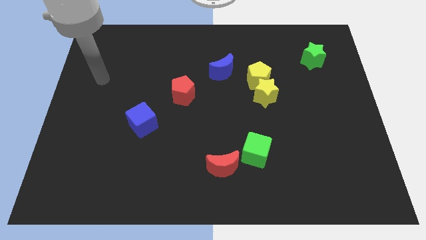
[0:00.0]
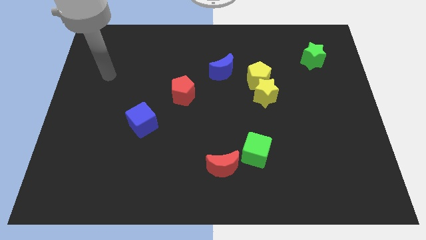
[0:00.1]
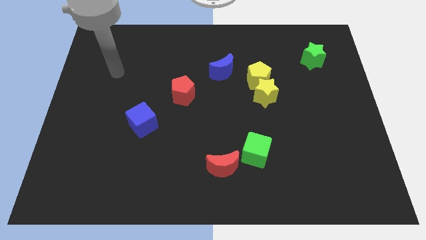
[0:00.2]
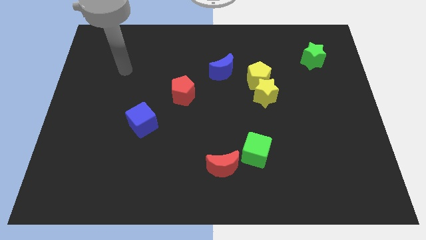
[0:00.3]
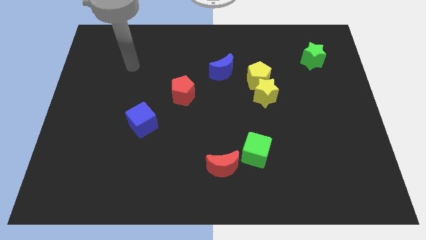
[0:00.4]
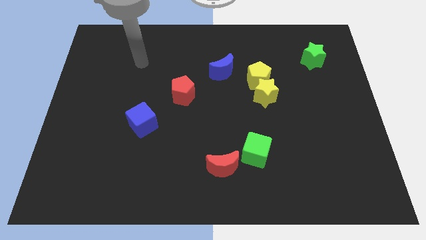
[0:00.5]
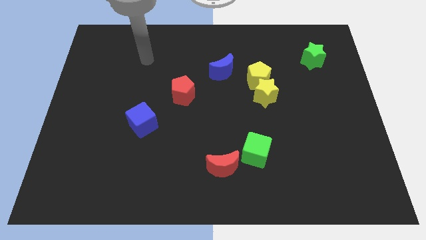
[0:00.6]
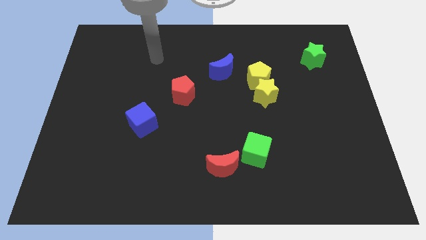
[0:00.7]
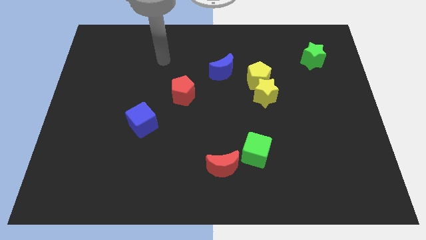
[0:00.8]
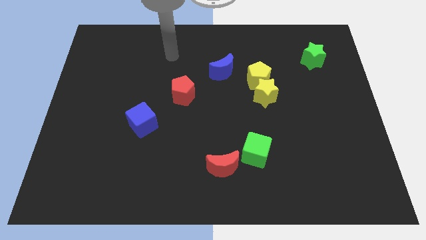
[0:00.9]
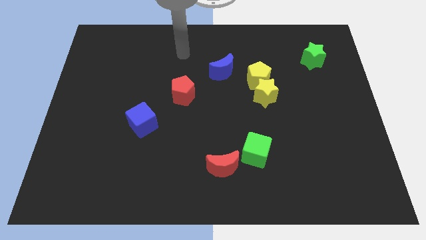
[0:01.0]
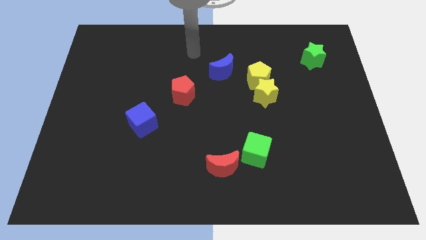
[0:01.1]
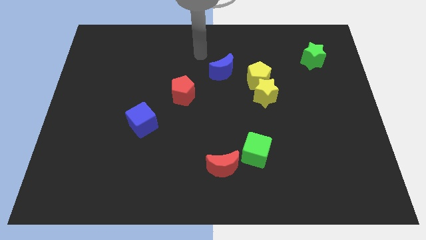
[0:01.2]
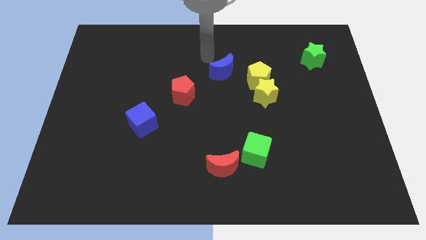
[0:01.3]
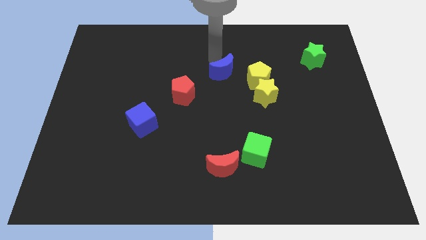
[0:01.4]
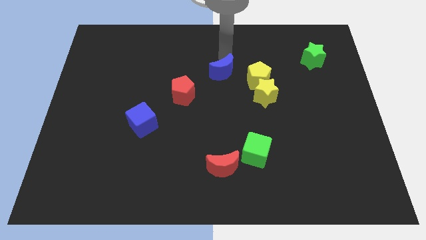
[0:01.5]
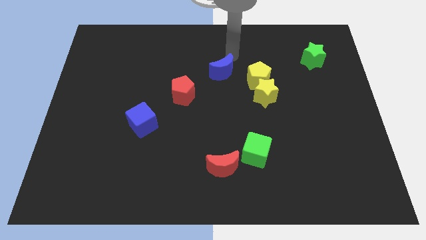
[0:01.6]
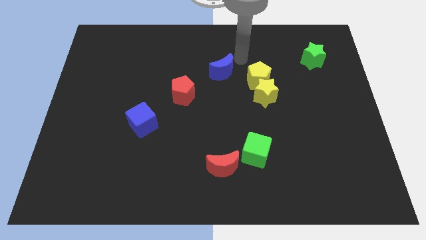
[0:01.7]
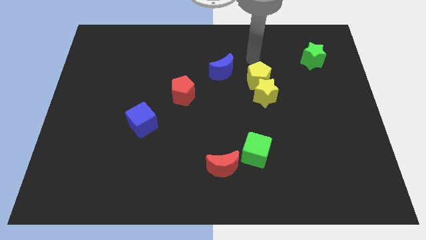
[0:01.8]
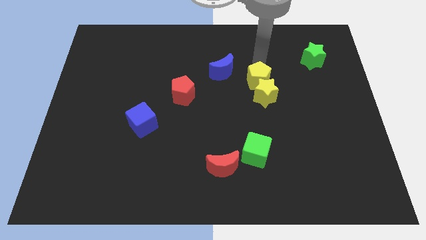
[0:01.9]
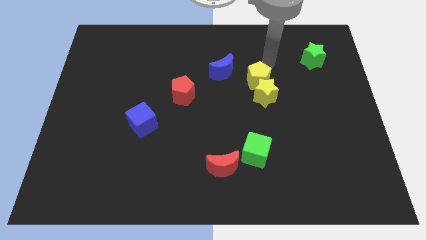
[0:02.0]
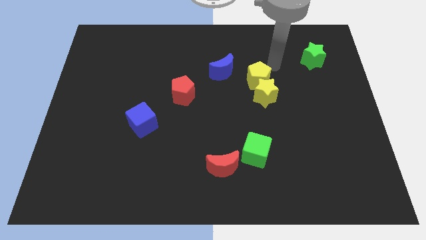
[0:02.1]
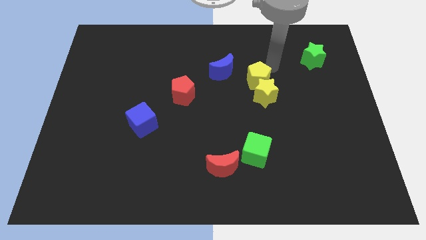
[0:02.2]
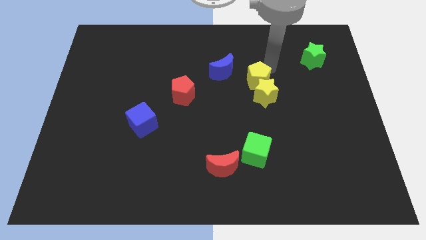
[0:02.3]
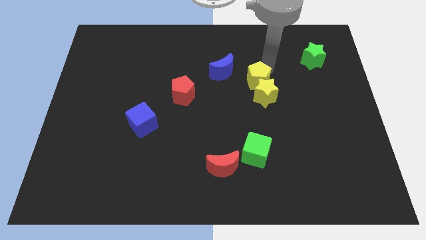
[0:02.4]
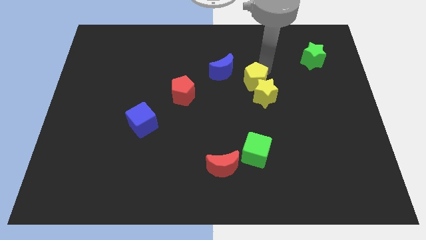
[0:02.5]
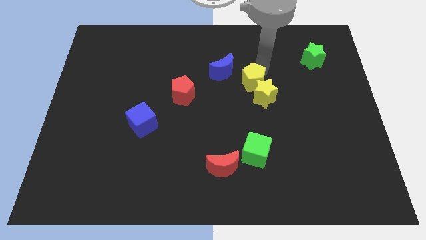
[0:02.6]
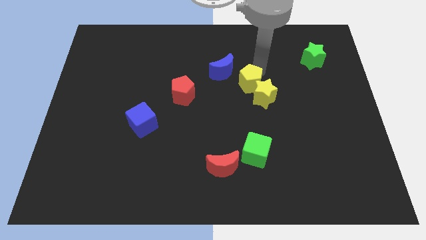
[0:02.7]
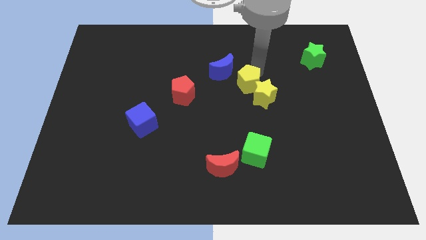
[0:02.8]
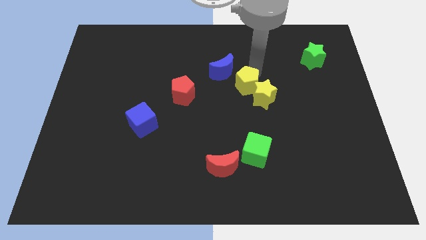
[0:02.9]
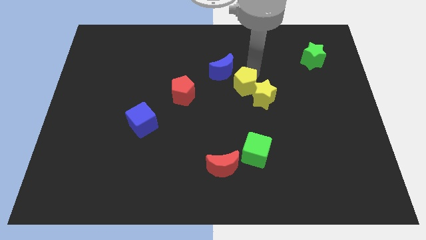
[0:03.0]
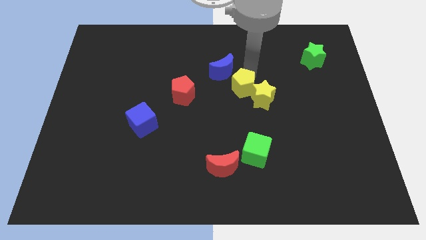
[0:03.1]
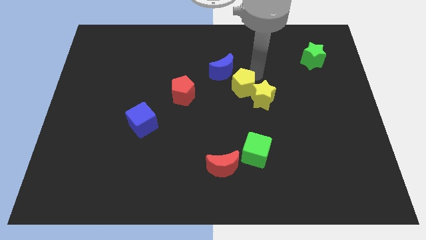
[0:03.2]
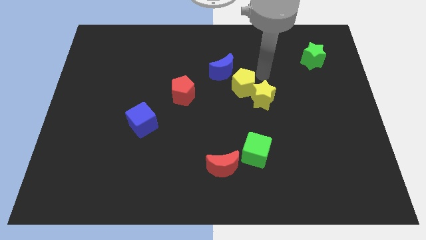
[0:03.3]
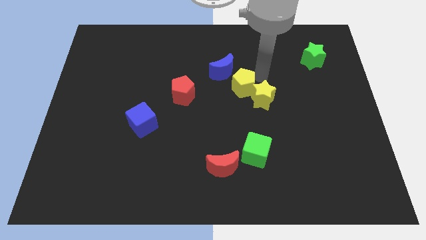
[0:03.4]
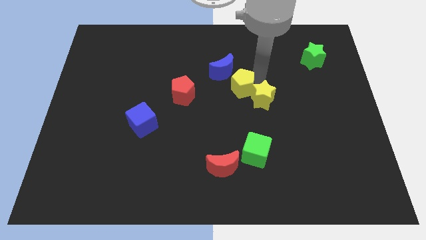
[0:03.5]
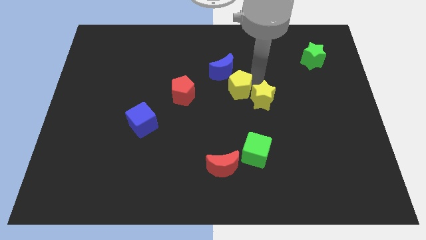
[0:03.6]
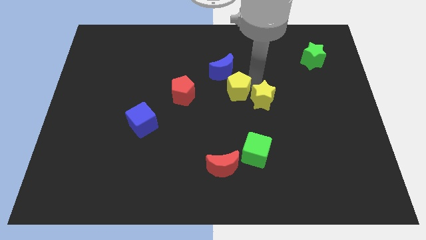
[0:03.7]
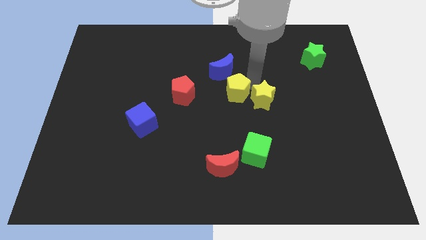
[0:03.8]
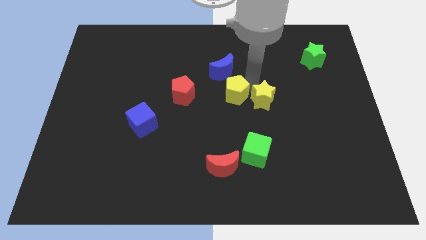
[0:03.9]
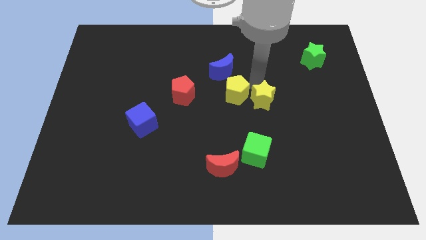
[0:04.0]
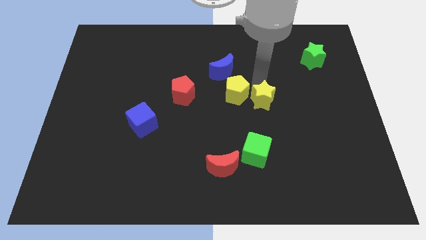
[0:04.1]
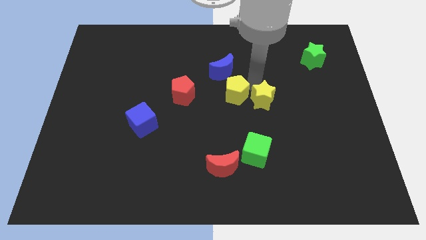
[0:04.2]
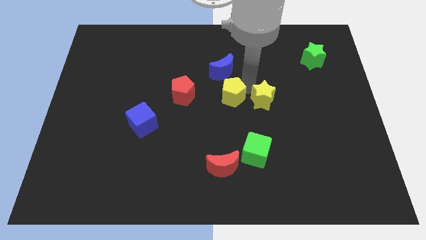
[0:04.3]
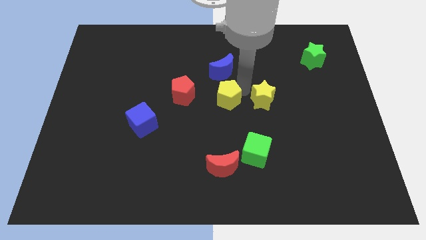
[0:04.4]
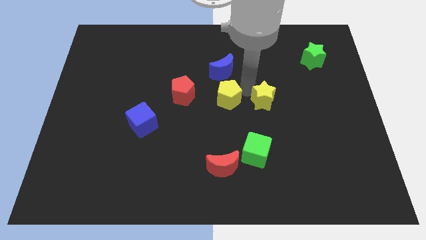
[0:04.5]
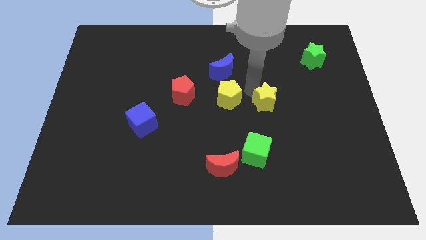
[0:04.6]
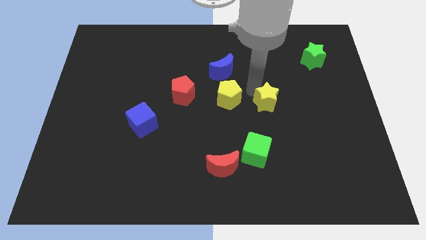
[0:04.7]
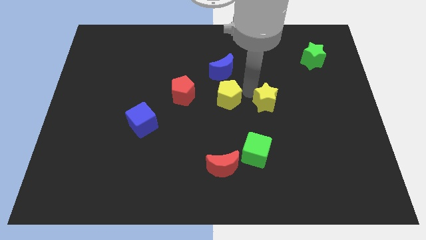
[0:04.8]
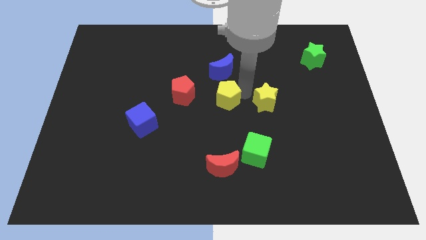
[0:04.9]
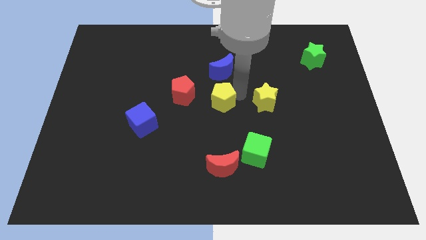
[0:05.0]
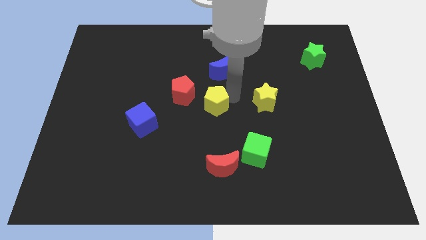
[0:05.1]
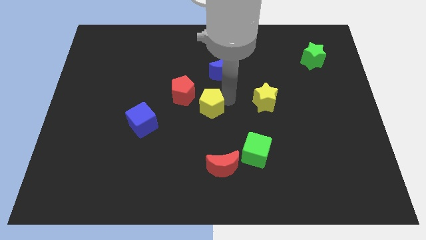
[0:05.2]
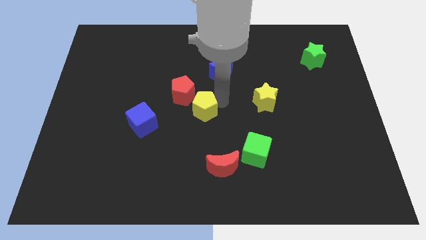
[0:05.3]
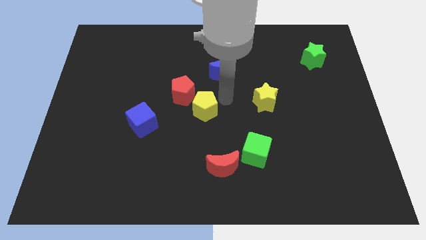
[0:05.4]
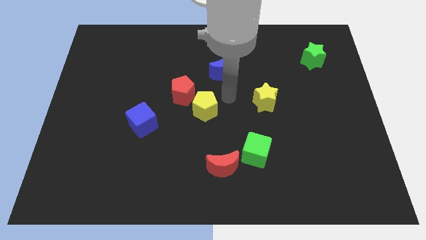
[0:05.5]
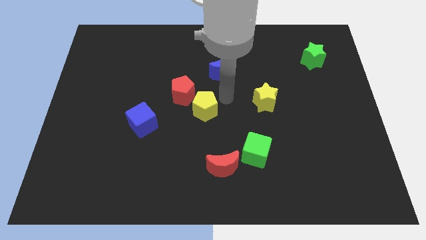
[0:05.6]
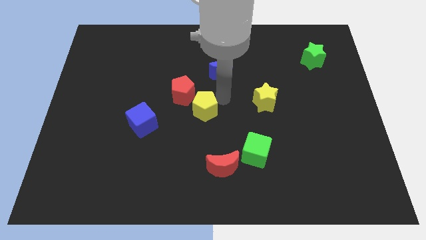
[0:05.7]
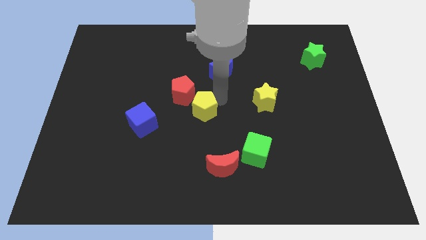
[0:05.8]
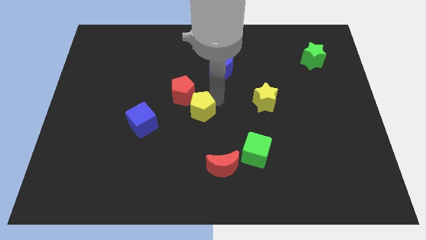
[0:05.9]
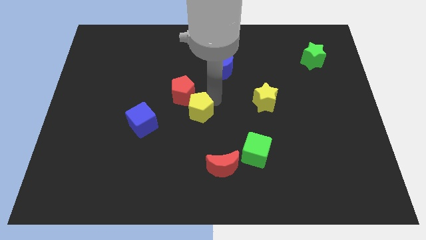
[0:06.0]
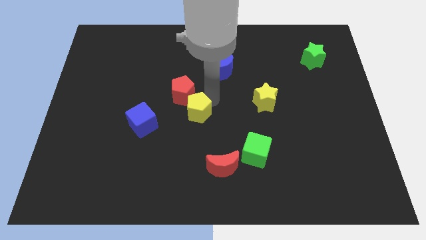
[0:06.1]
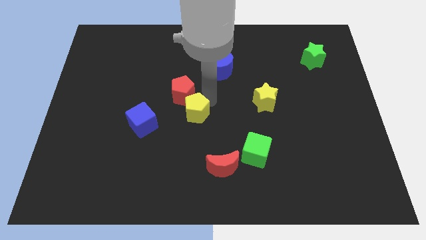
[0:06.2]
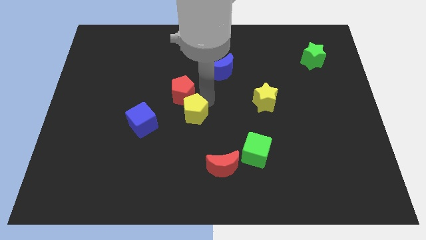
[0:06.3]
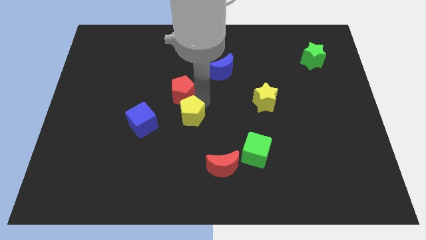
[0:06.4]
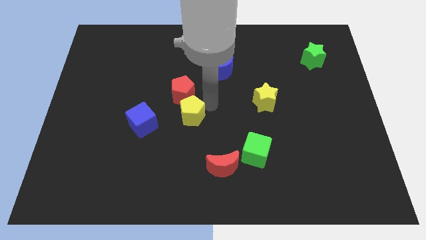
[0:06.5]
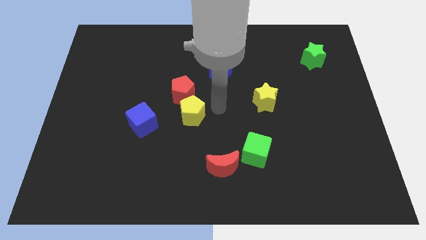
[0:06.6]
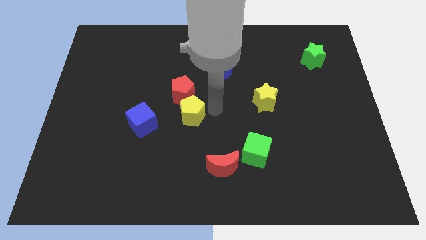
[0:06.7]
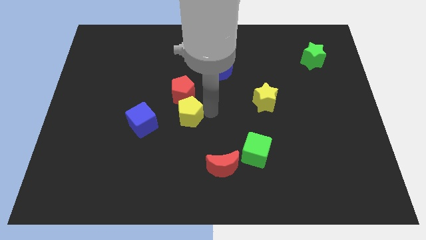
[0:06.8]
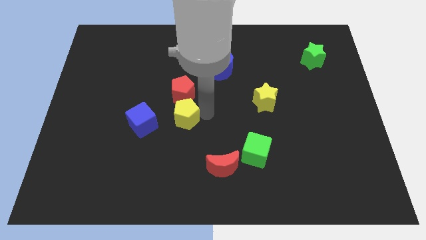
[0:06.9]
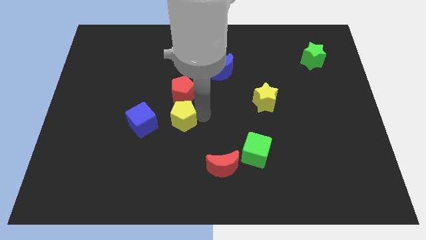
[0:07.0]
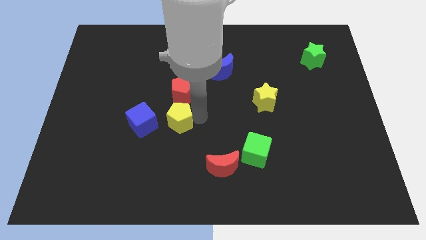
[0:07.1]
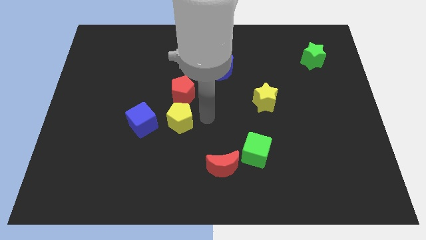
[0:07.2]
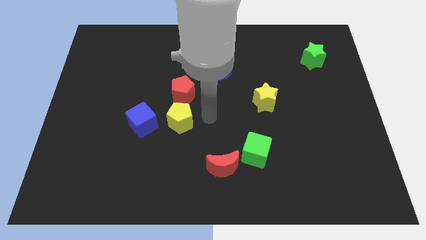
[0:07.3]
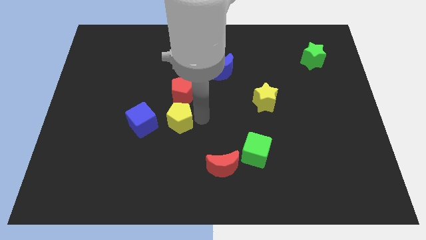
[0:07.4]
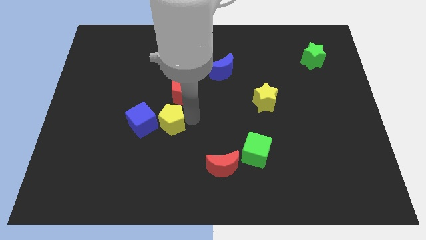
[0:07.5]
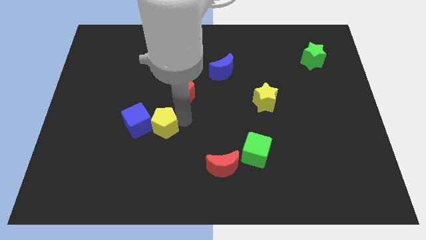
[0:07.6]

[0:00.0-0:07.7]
move the yellow pentagon towards the blue cube

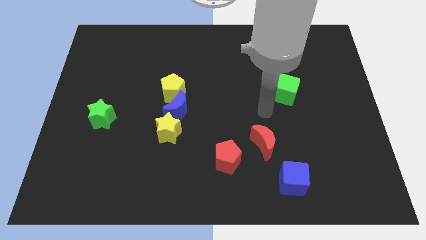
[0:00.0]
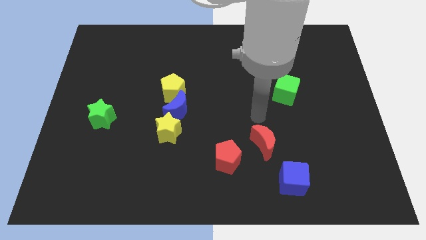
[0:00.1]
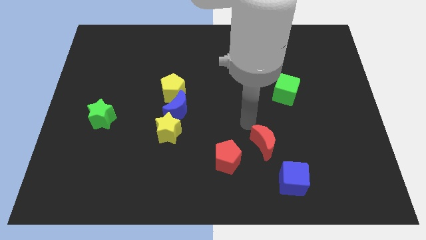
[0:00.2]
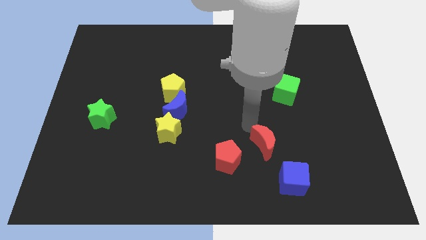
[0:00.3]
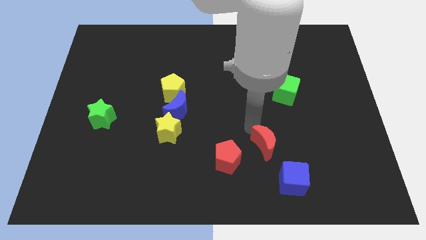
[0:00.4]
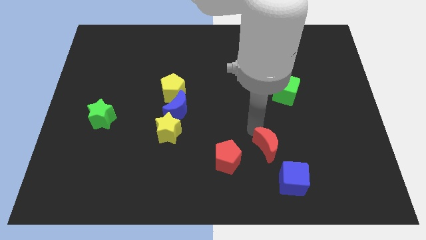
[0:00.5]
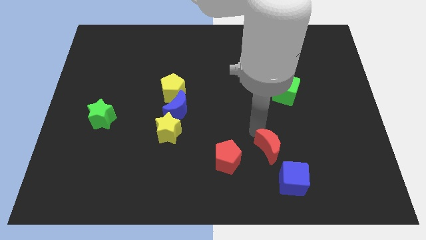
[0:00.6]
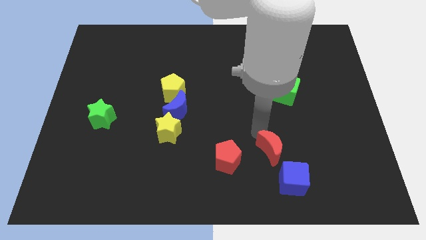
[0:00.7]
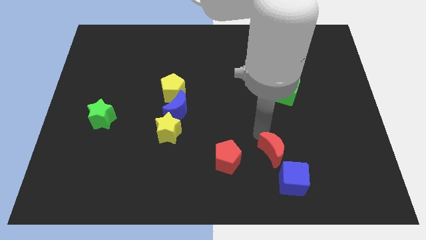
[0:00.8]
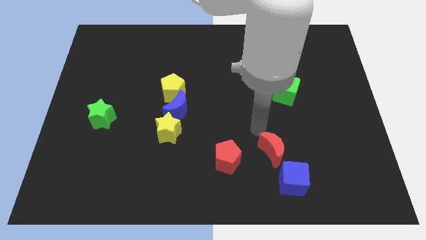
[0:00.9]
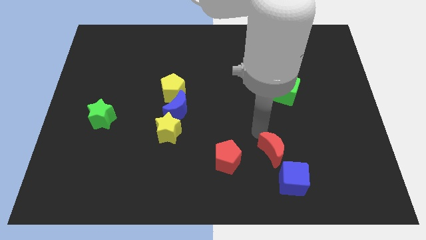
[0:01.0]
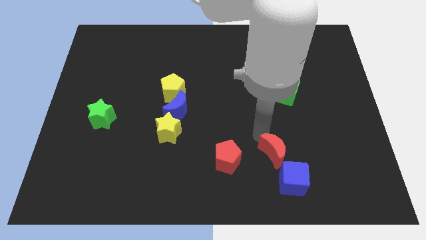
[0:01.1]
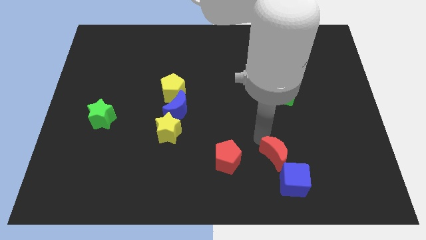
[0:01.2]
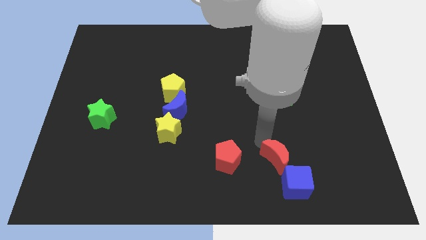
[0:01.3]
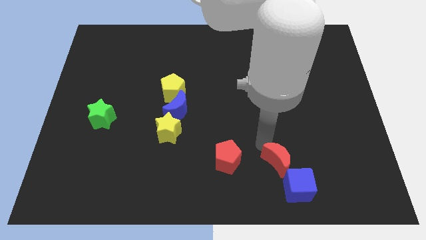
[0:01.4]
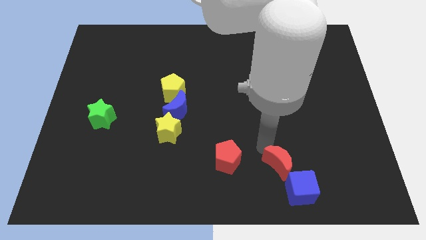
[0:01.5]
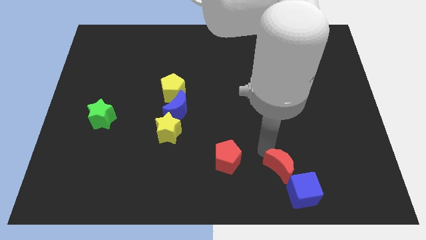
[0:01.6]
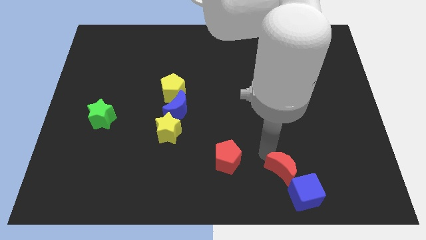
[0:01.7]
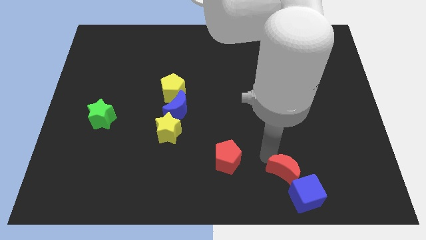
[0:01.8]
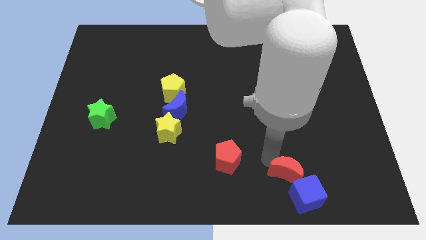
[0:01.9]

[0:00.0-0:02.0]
put the red moon to the blue cube
